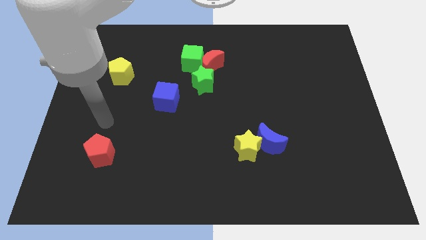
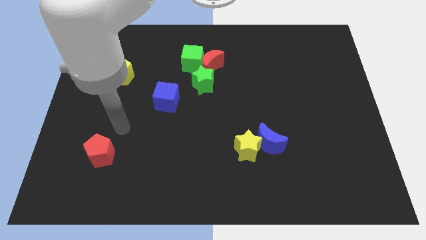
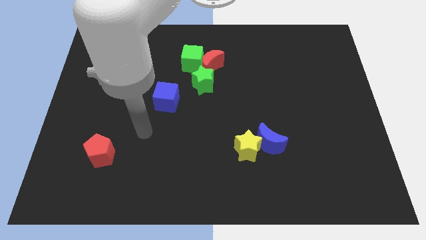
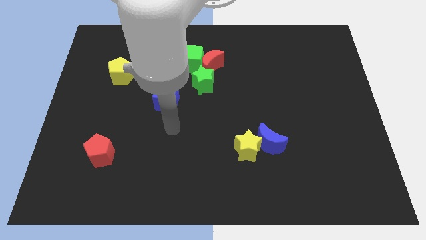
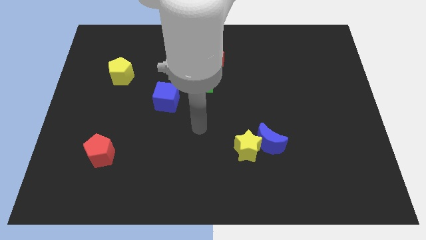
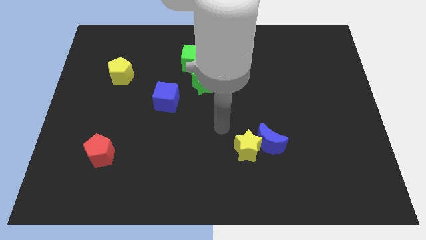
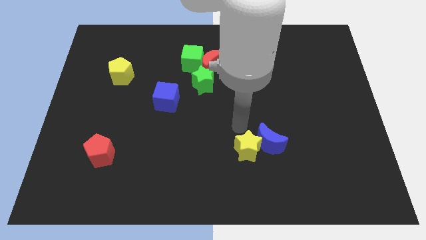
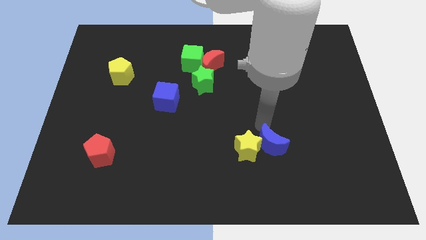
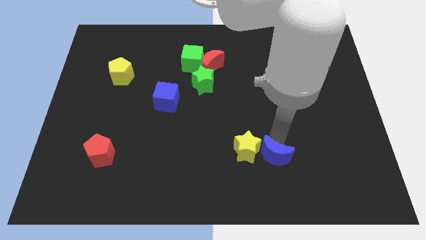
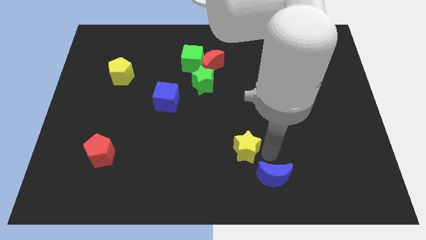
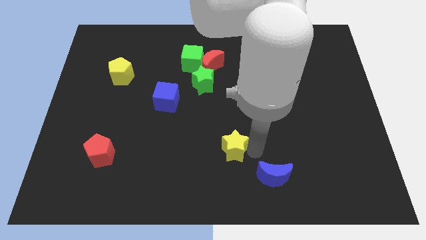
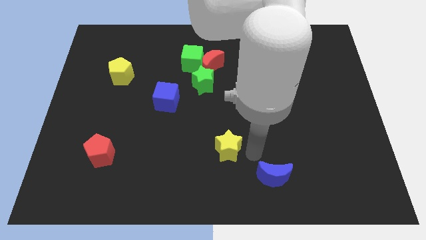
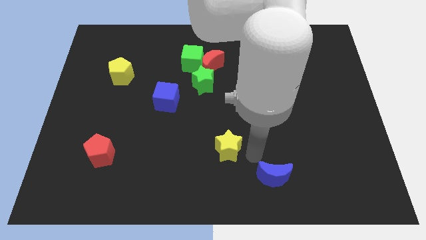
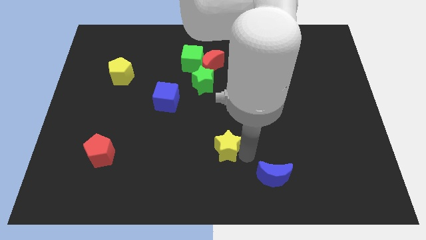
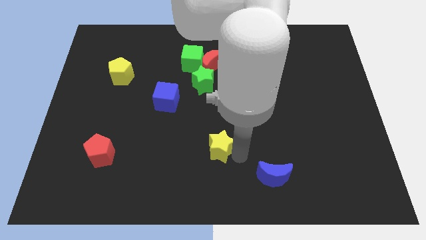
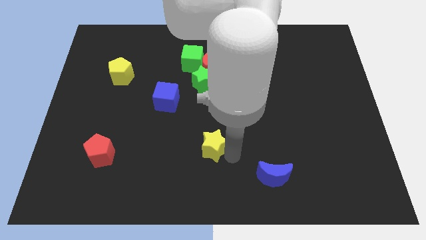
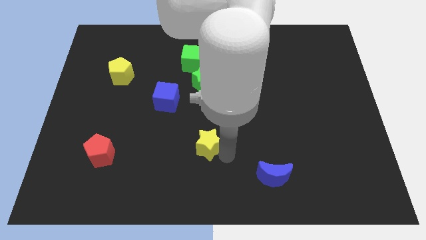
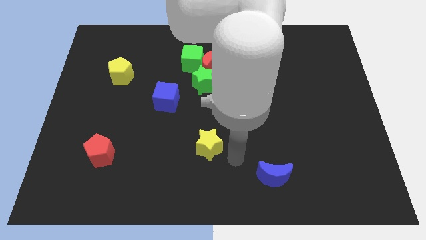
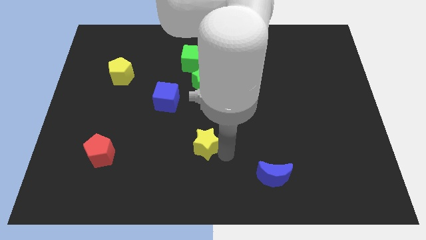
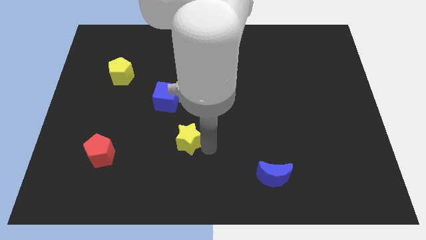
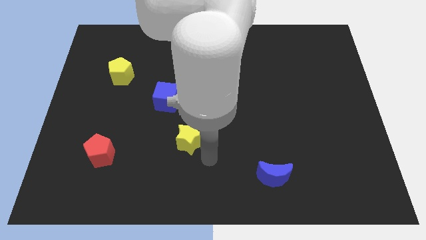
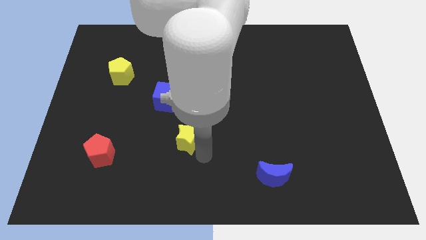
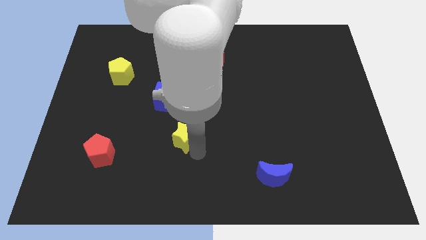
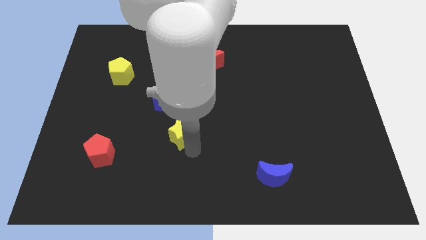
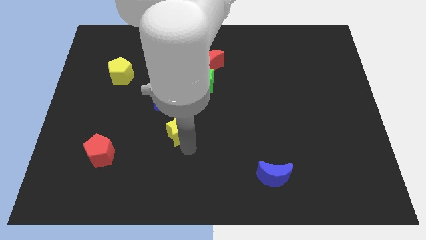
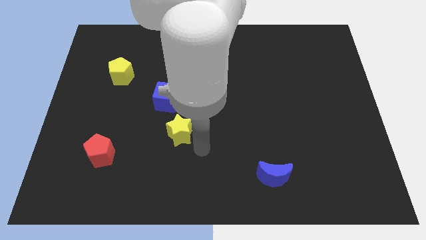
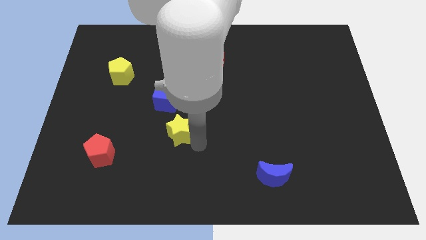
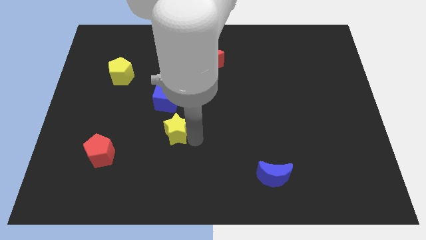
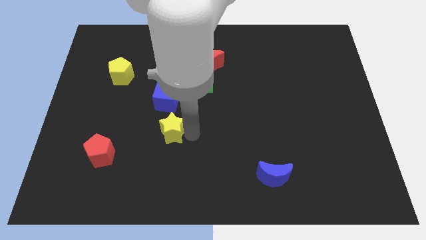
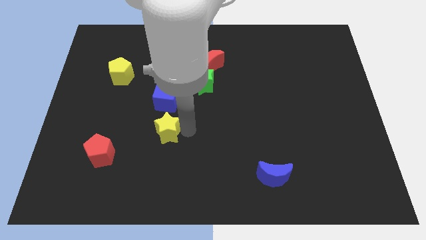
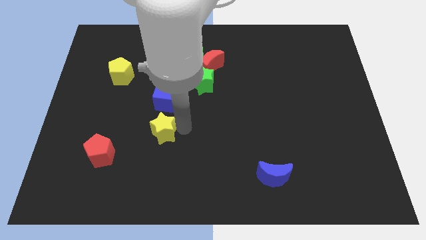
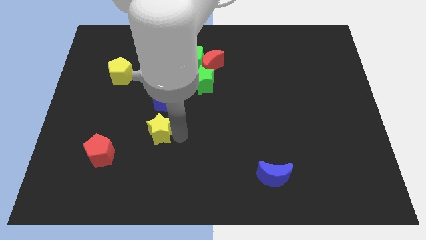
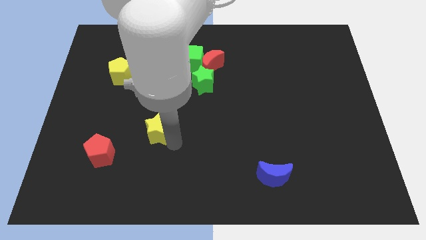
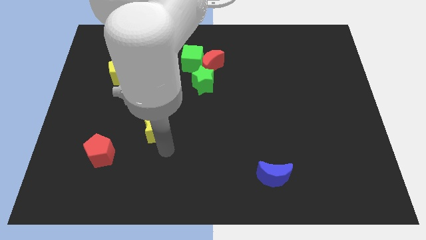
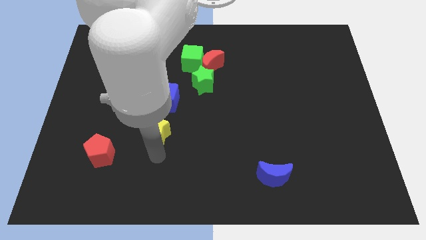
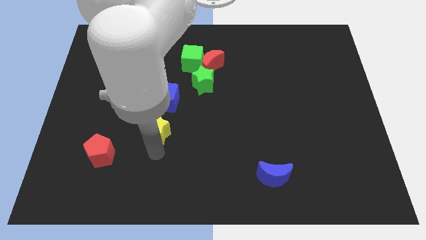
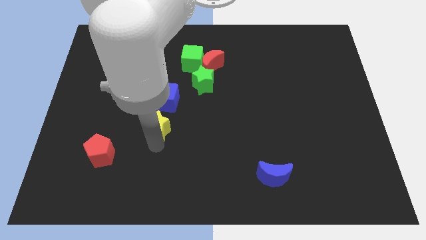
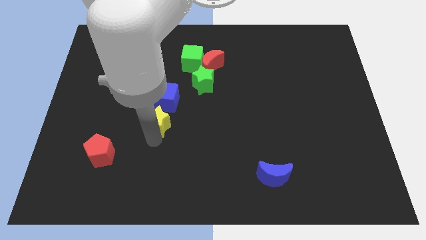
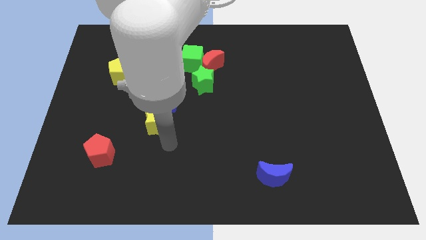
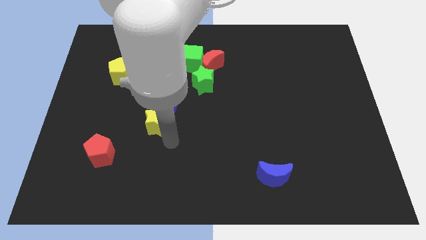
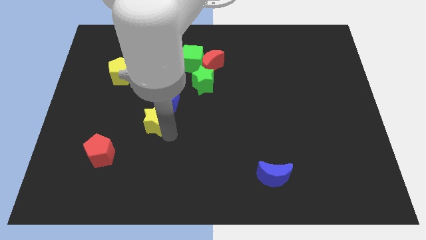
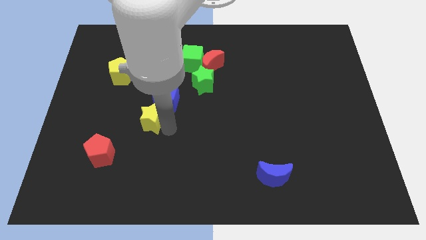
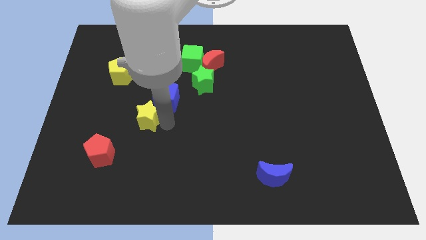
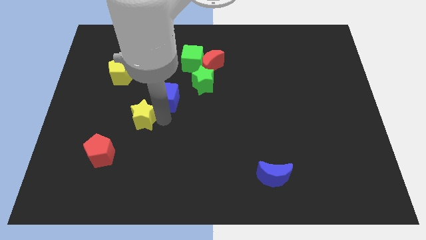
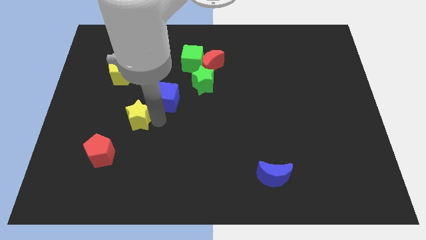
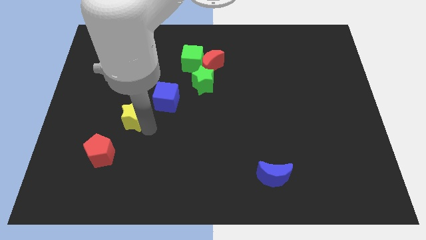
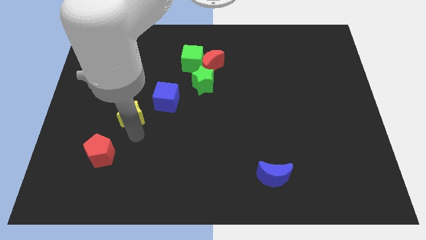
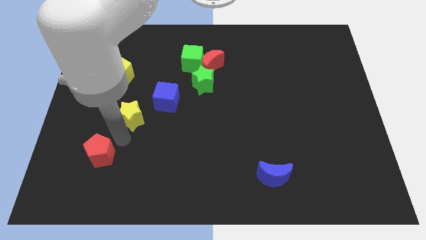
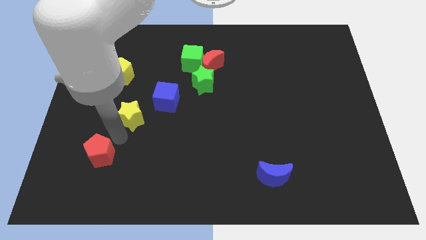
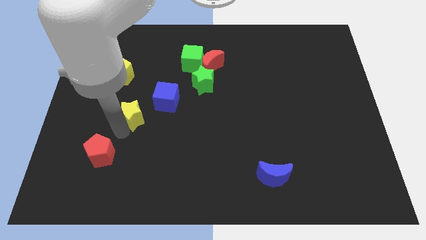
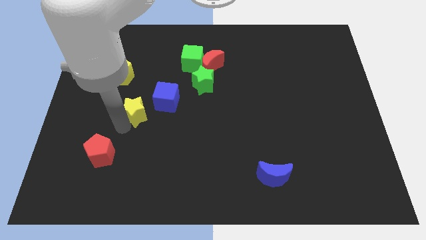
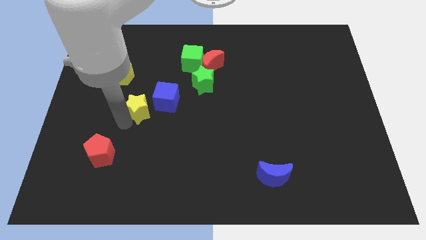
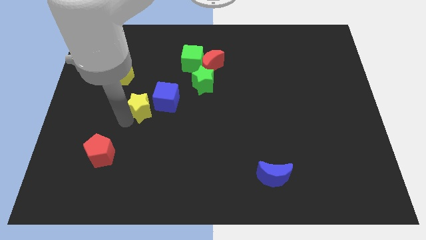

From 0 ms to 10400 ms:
slide the yellow star upwards and left diagonally

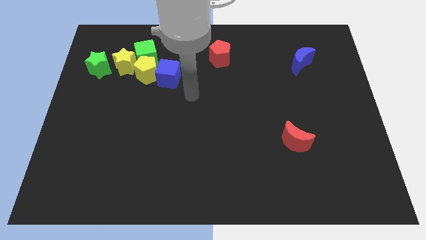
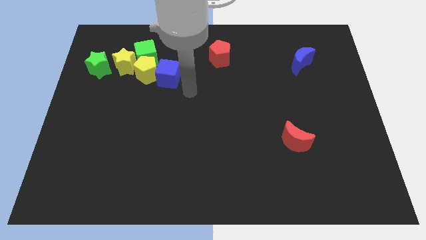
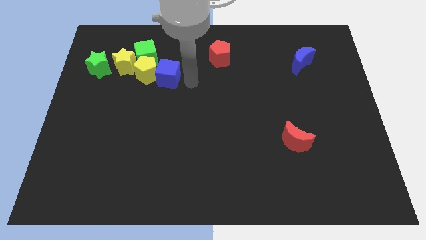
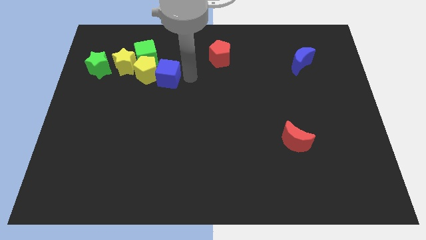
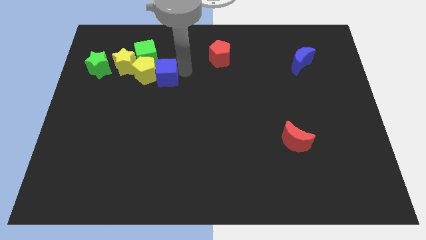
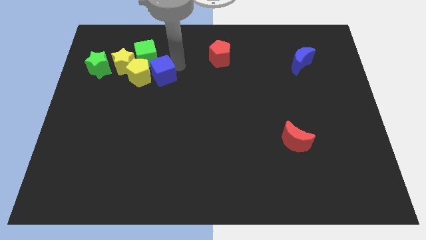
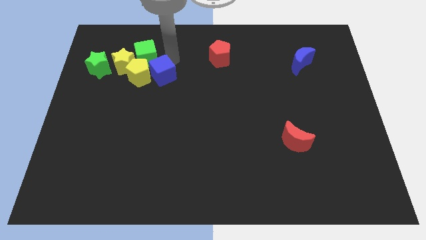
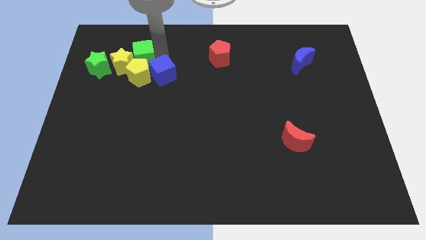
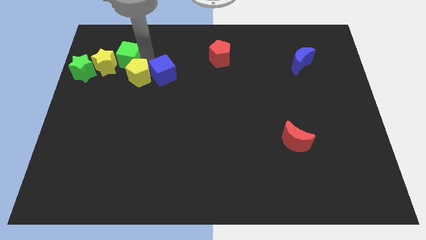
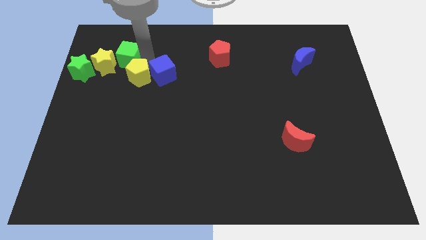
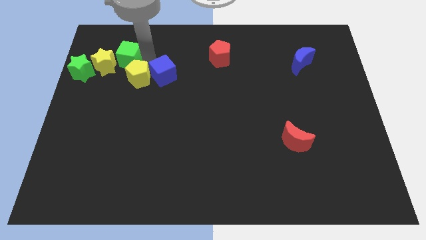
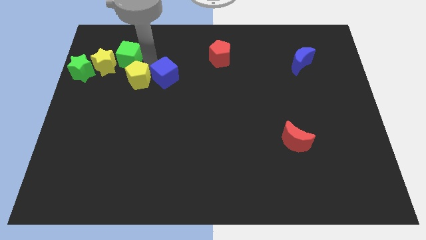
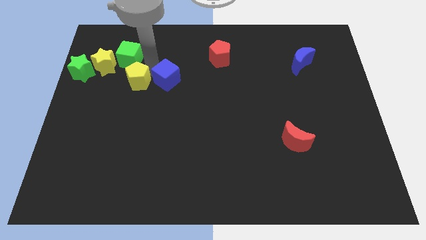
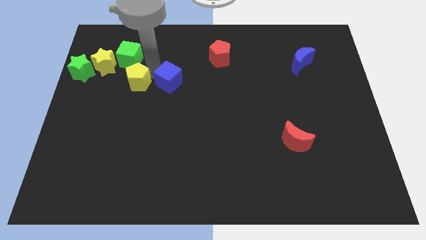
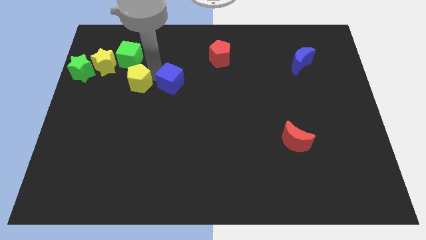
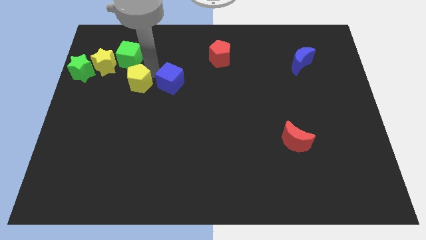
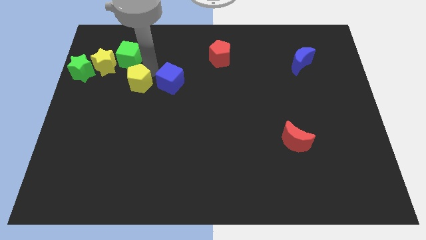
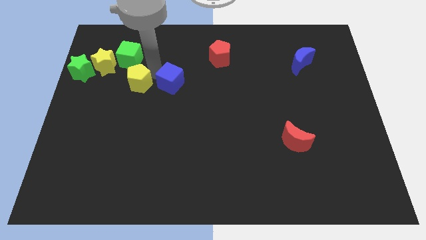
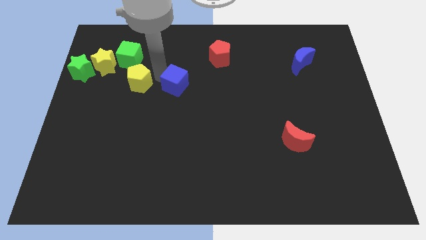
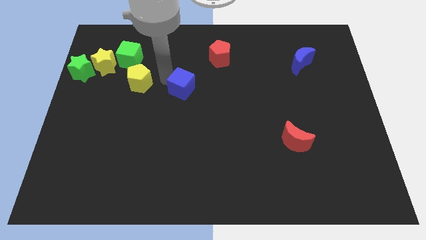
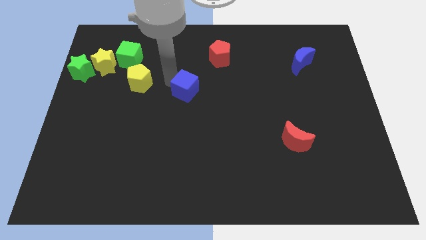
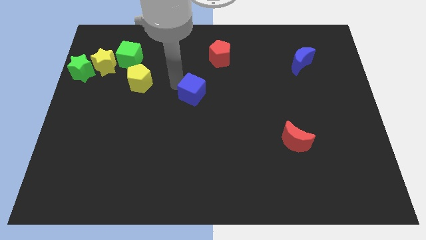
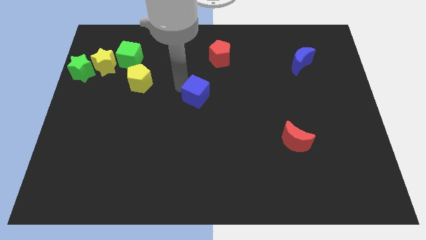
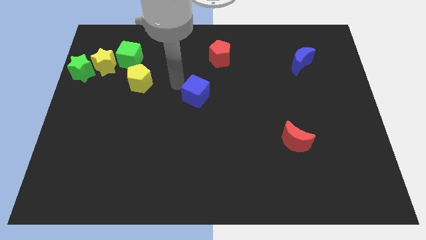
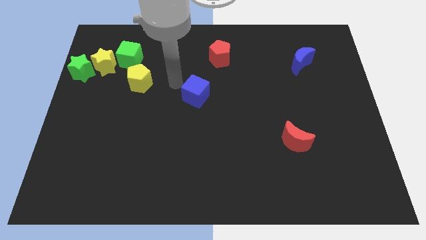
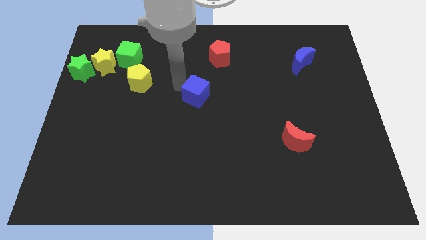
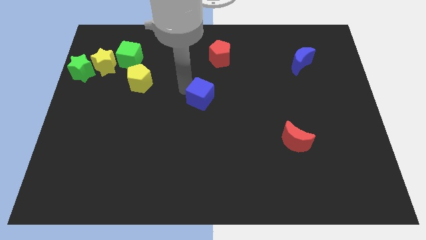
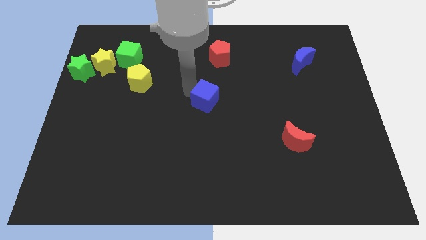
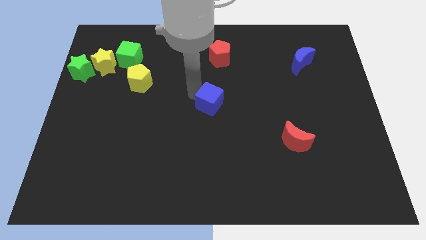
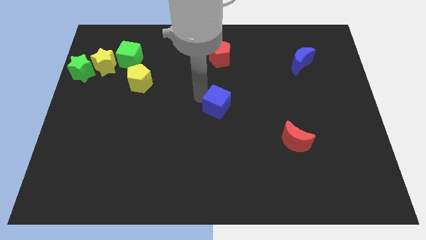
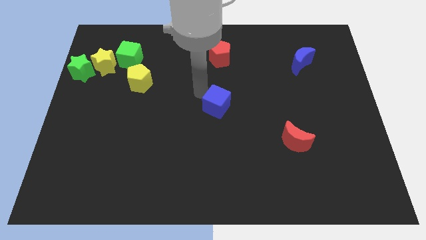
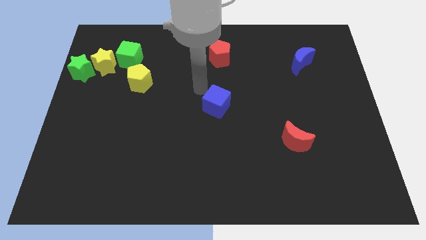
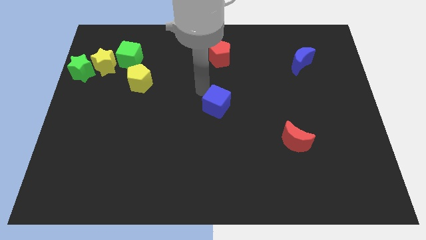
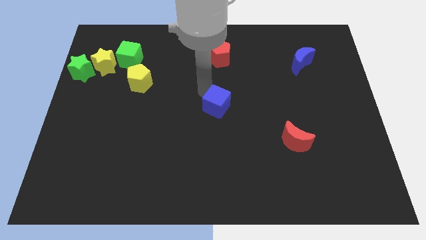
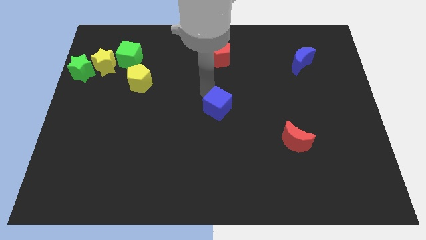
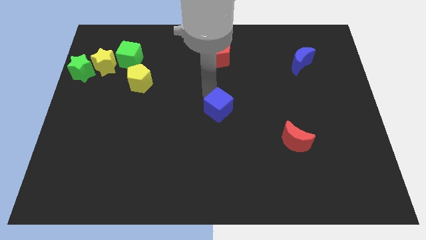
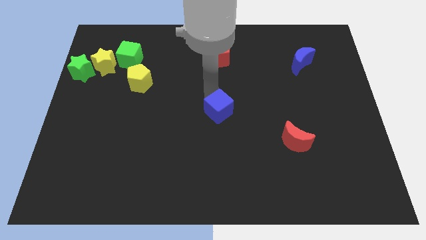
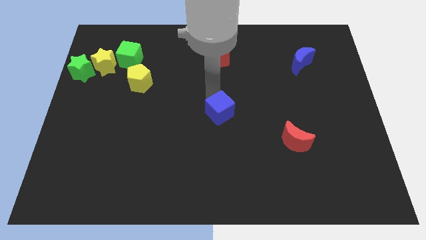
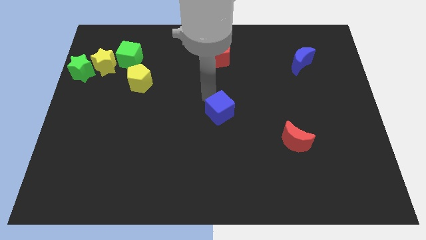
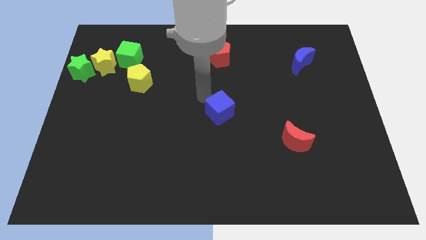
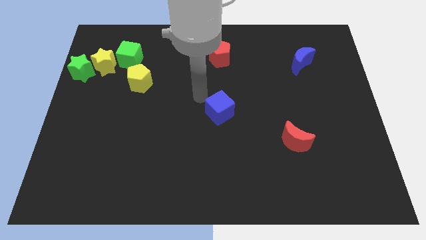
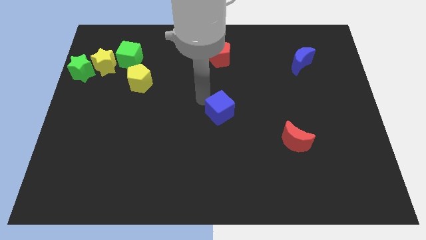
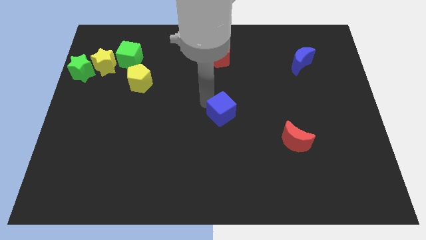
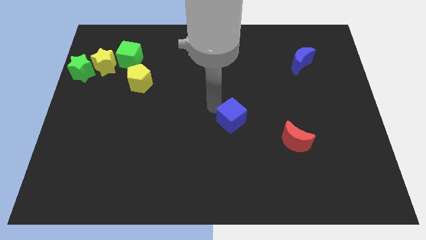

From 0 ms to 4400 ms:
push the blue cube downwards and to the right
